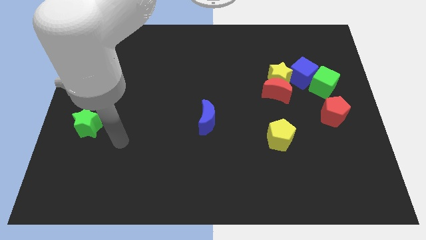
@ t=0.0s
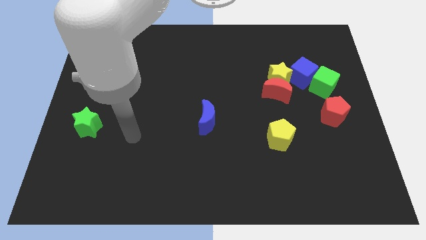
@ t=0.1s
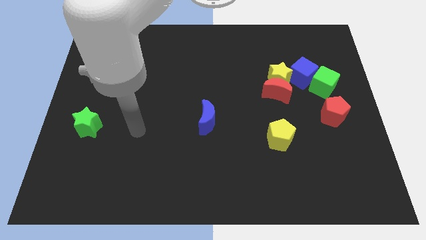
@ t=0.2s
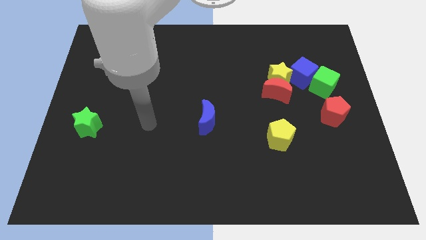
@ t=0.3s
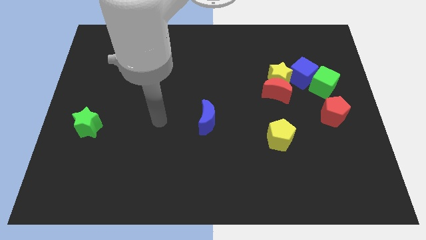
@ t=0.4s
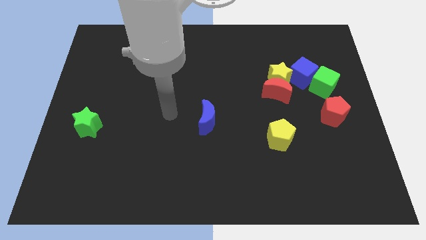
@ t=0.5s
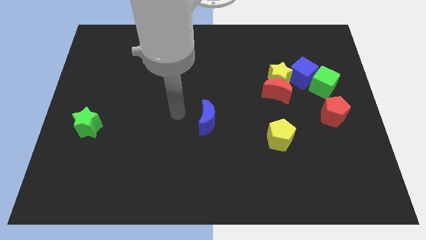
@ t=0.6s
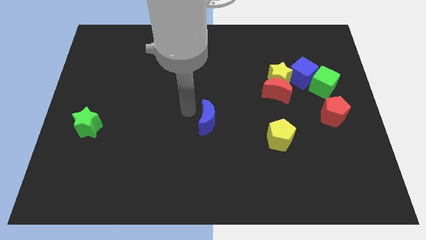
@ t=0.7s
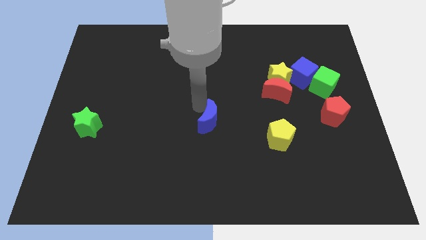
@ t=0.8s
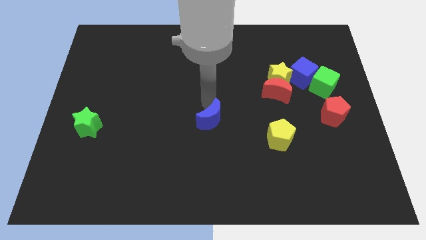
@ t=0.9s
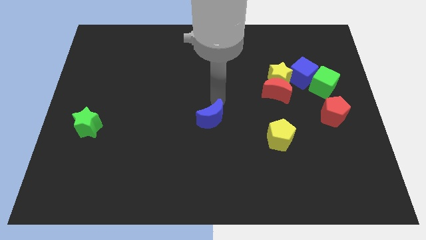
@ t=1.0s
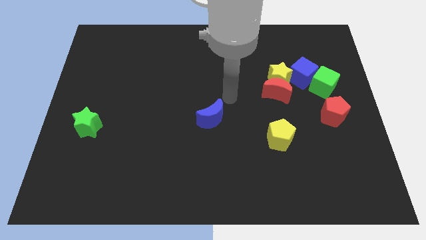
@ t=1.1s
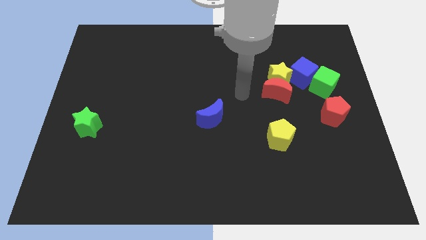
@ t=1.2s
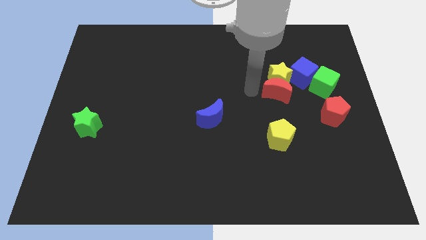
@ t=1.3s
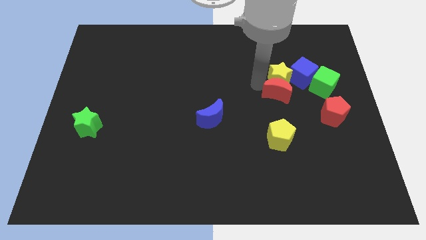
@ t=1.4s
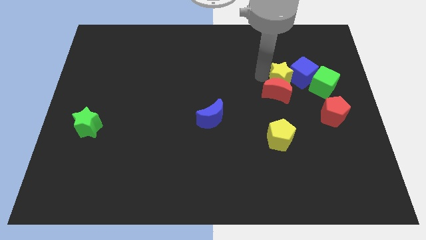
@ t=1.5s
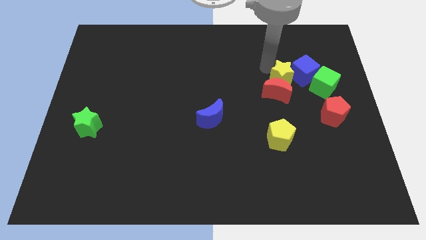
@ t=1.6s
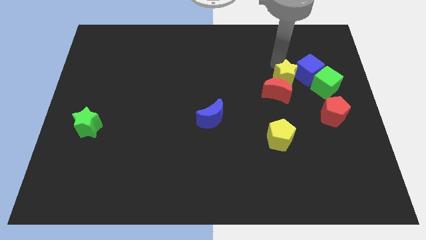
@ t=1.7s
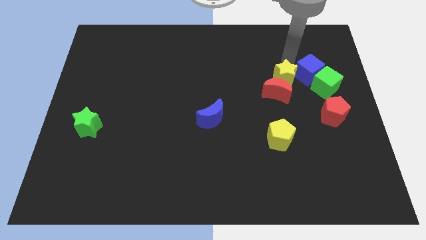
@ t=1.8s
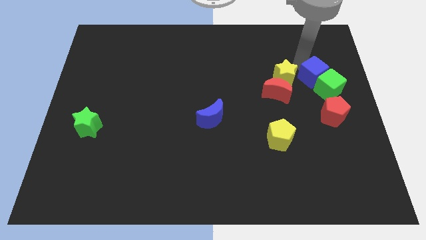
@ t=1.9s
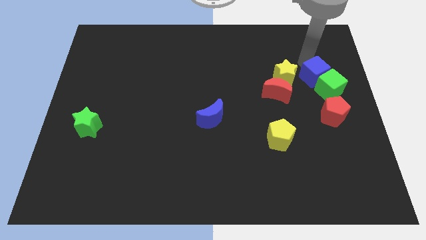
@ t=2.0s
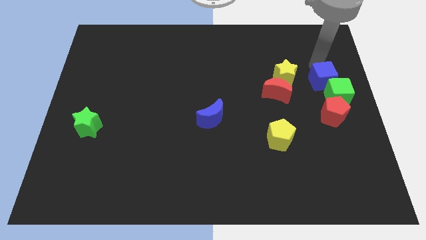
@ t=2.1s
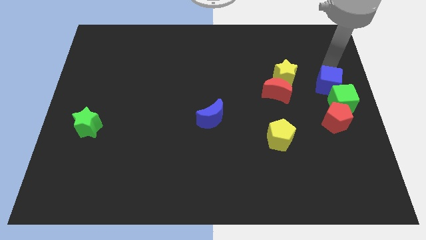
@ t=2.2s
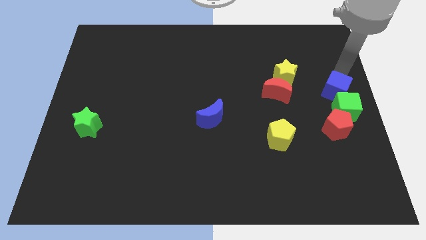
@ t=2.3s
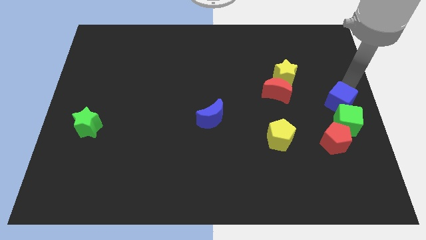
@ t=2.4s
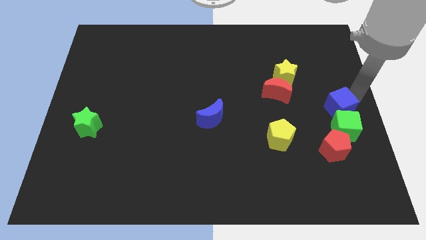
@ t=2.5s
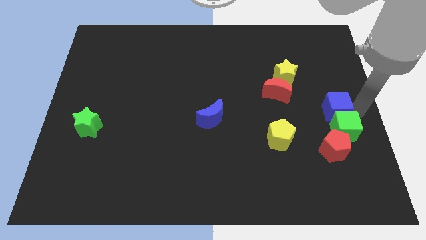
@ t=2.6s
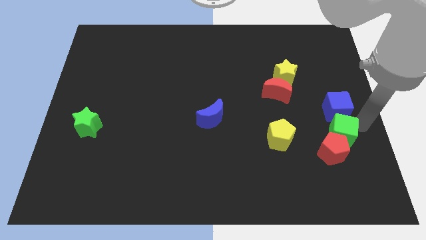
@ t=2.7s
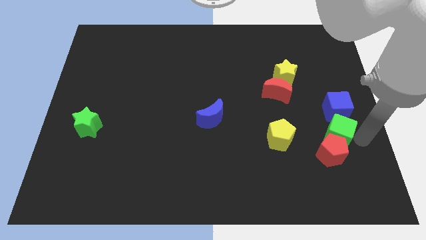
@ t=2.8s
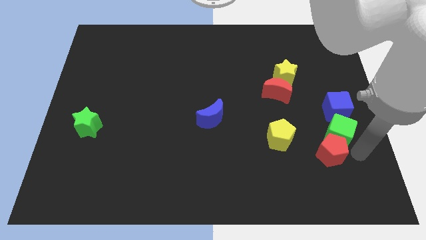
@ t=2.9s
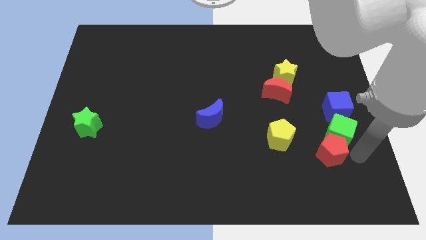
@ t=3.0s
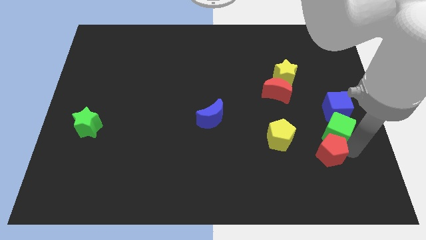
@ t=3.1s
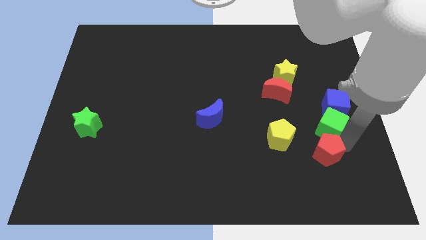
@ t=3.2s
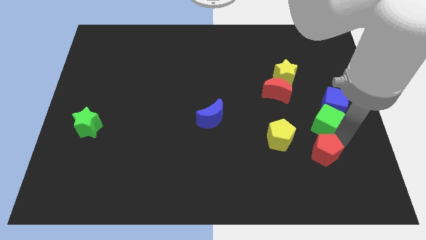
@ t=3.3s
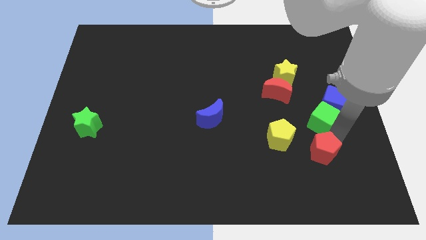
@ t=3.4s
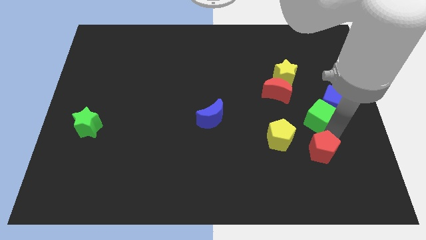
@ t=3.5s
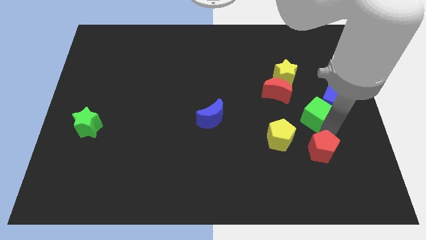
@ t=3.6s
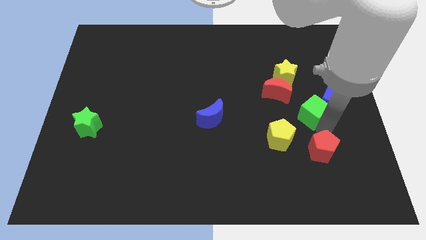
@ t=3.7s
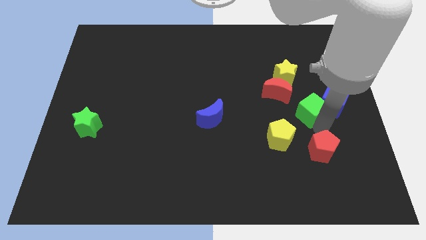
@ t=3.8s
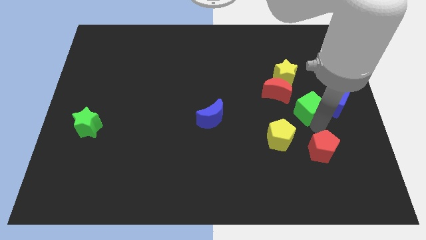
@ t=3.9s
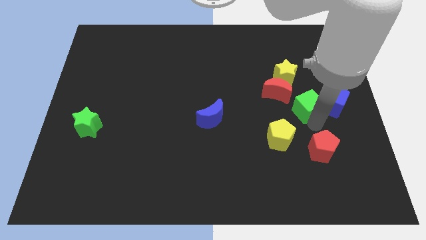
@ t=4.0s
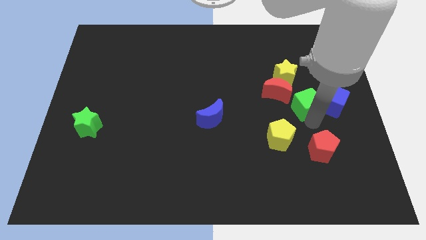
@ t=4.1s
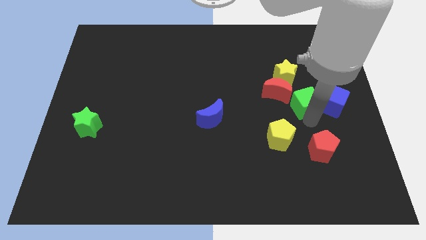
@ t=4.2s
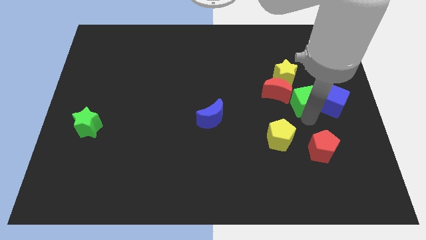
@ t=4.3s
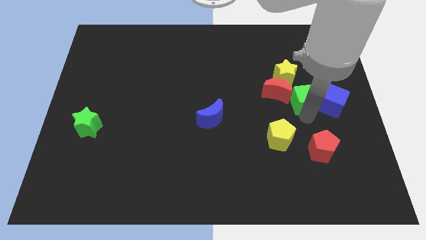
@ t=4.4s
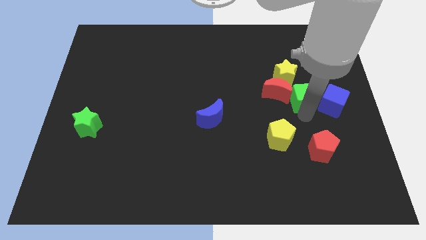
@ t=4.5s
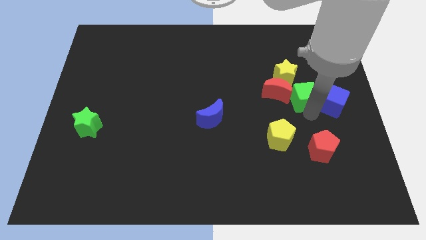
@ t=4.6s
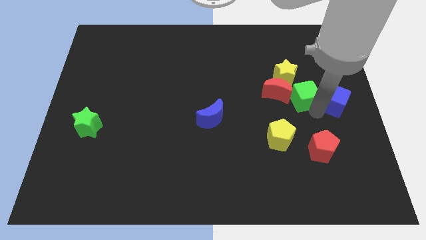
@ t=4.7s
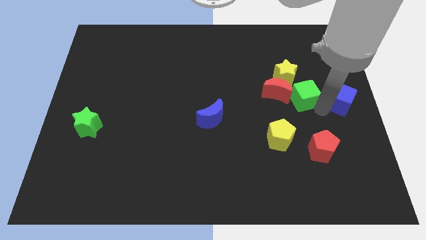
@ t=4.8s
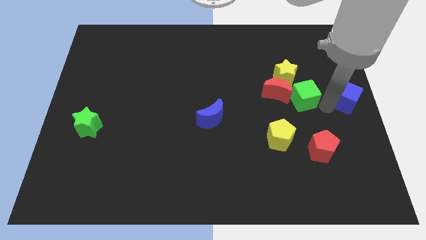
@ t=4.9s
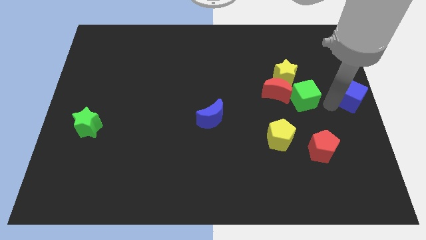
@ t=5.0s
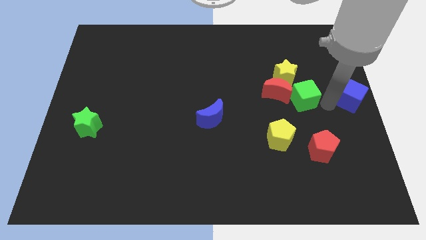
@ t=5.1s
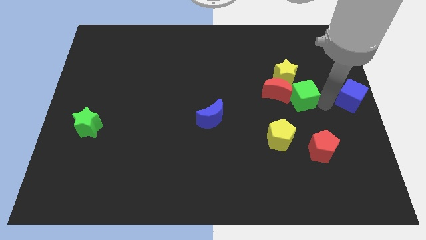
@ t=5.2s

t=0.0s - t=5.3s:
move the green cube towards the red moon

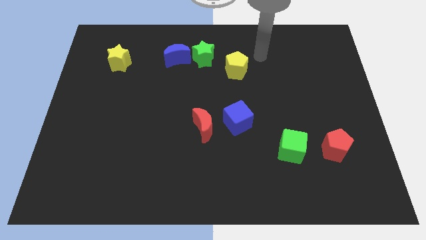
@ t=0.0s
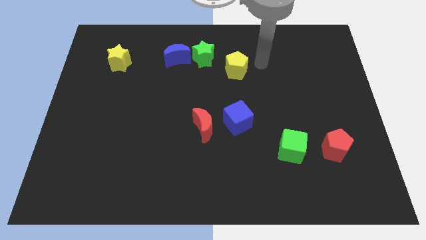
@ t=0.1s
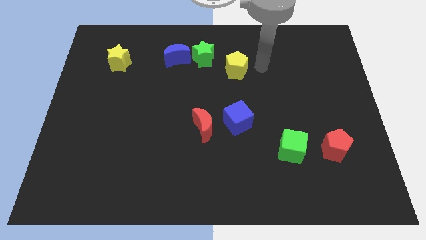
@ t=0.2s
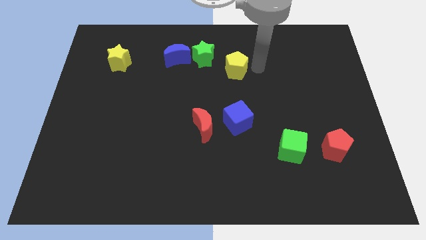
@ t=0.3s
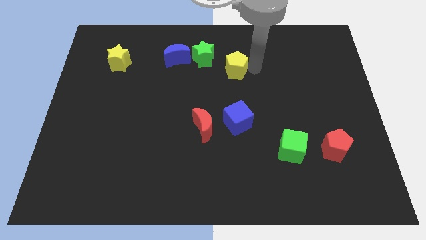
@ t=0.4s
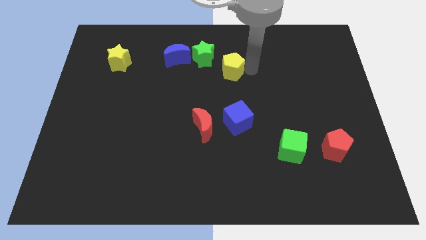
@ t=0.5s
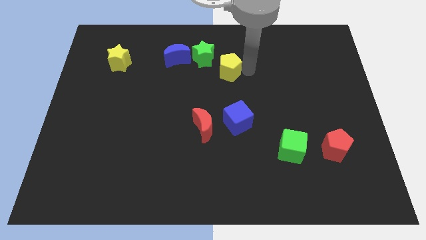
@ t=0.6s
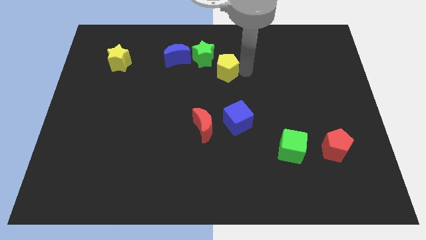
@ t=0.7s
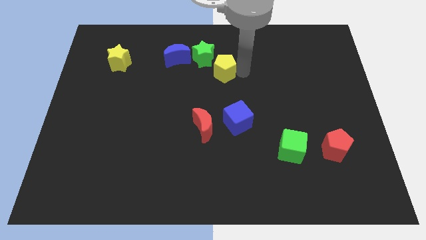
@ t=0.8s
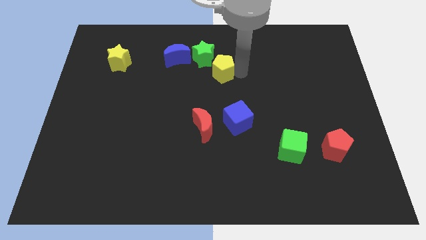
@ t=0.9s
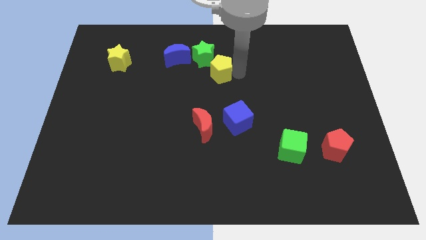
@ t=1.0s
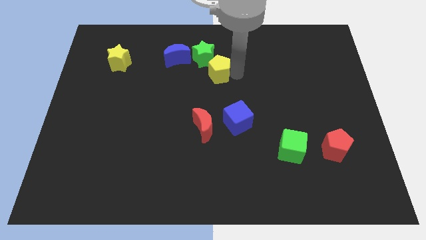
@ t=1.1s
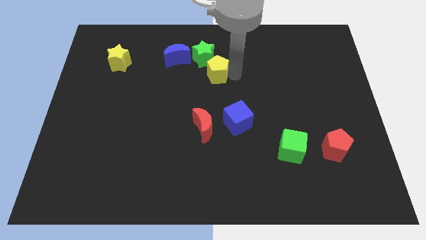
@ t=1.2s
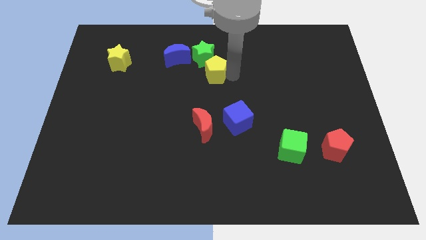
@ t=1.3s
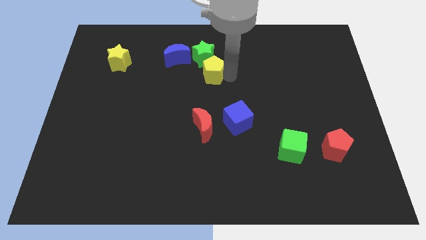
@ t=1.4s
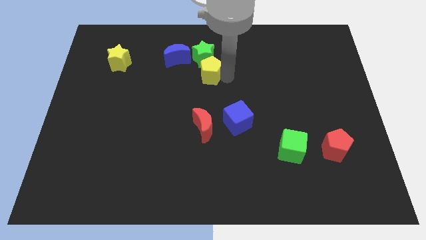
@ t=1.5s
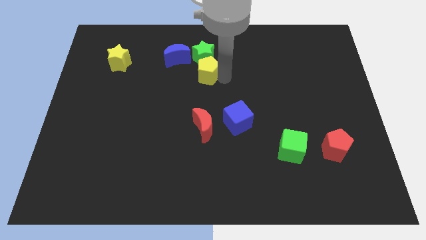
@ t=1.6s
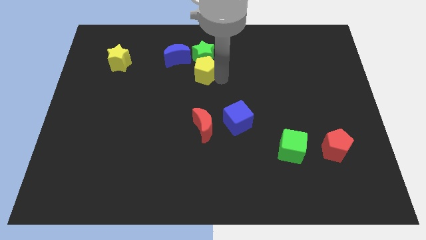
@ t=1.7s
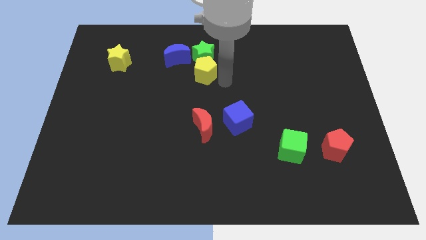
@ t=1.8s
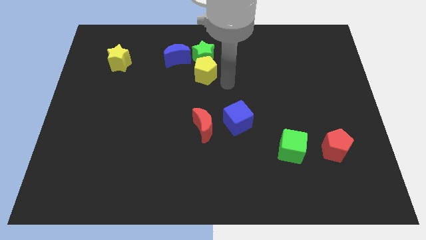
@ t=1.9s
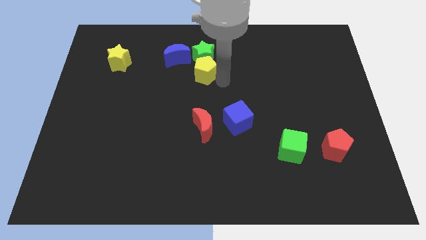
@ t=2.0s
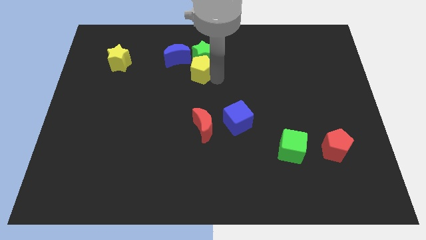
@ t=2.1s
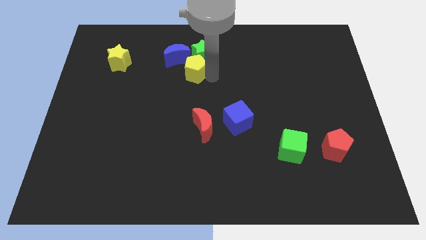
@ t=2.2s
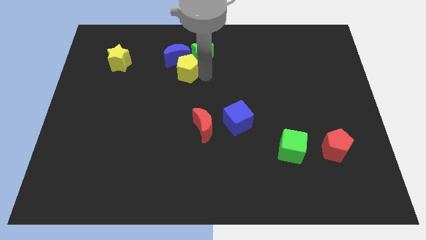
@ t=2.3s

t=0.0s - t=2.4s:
move the yellow pentagon towards the blue moon

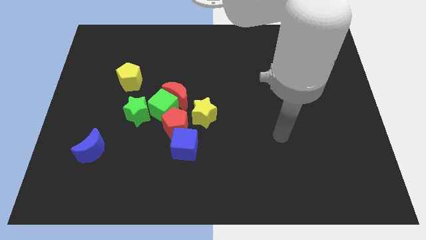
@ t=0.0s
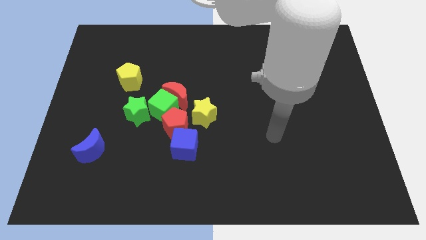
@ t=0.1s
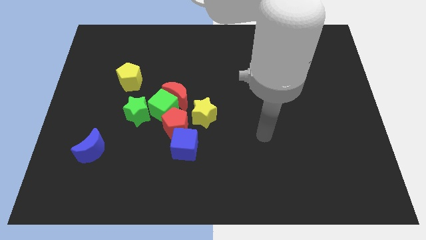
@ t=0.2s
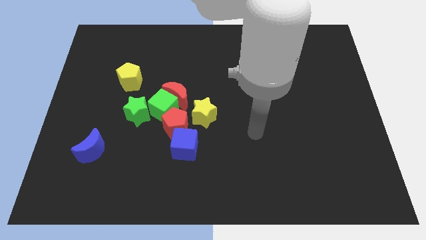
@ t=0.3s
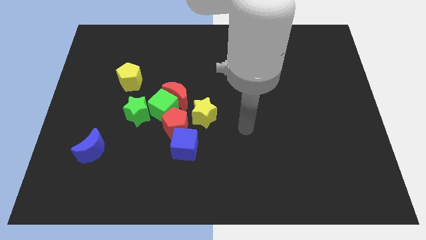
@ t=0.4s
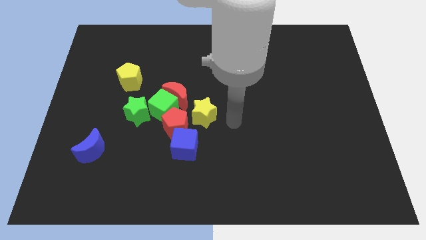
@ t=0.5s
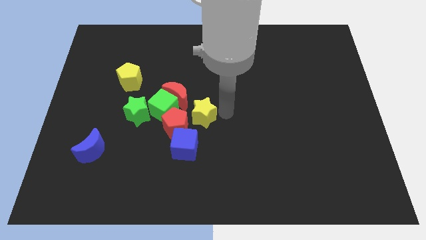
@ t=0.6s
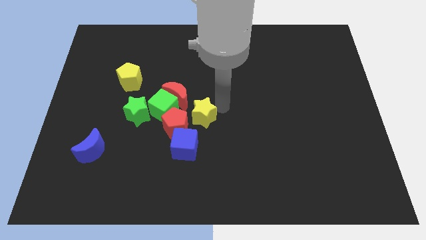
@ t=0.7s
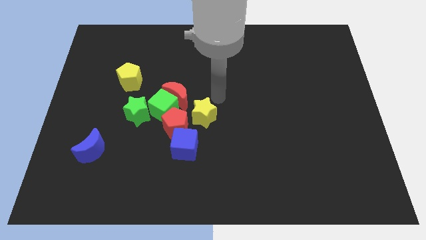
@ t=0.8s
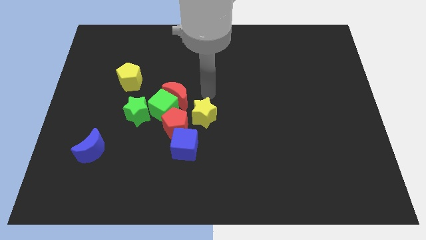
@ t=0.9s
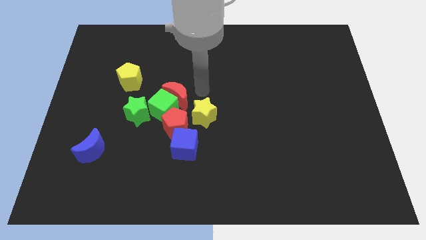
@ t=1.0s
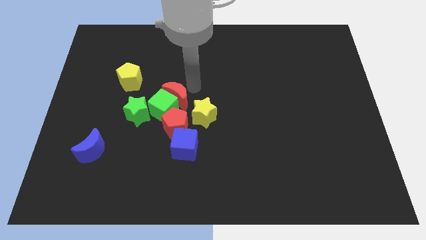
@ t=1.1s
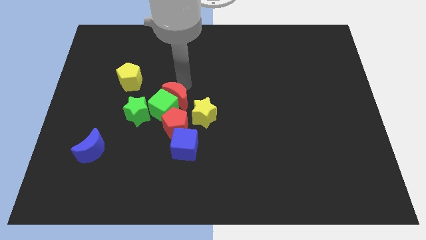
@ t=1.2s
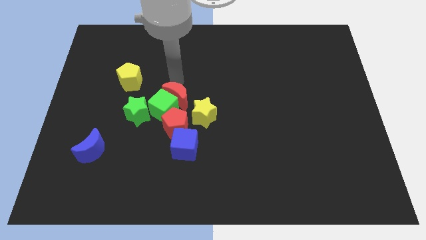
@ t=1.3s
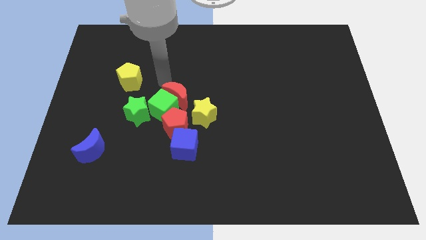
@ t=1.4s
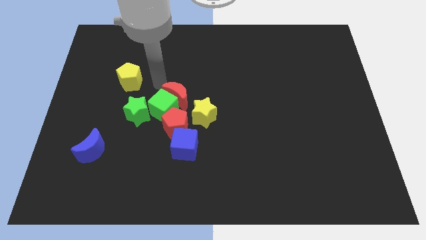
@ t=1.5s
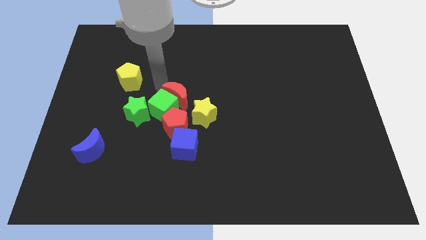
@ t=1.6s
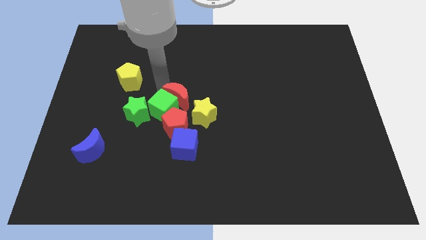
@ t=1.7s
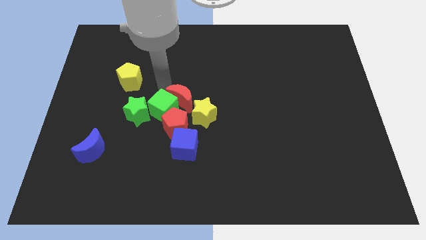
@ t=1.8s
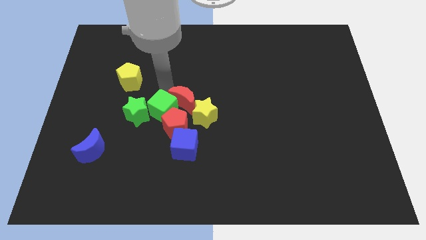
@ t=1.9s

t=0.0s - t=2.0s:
slide the red moon next to the yellow star
